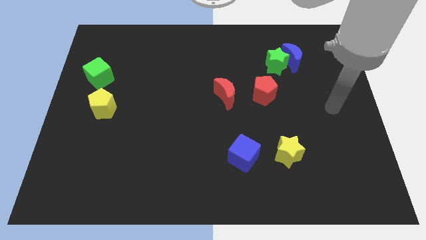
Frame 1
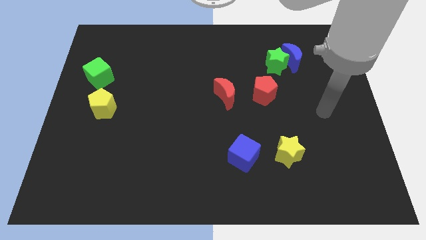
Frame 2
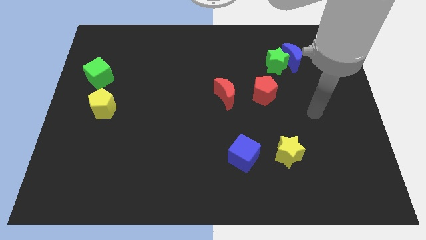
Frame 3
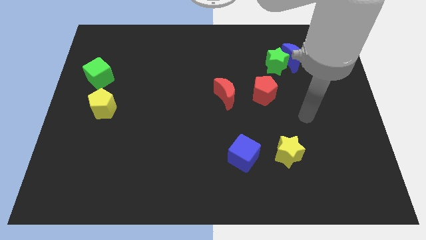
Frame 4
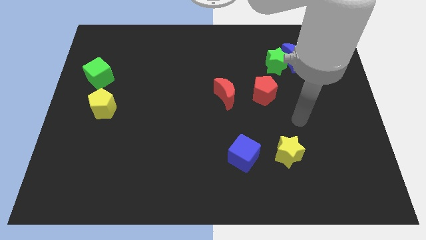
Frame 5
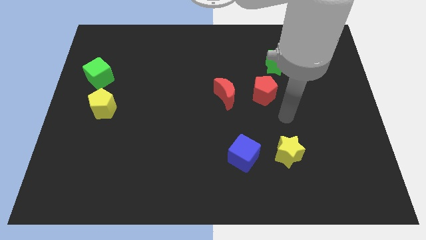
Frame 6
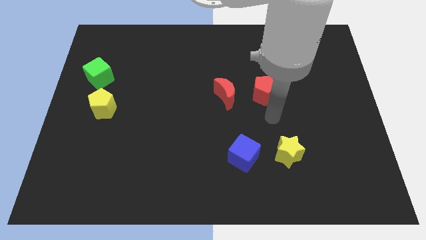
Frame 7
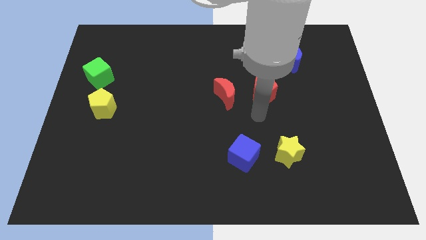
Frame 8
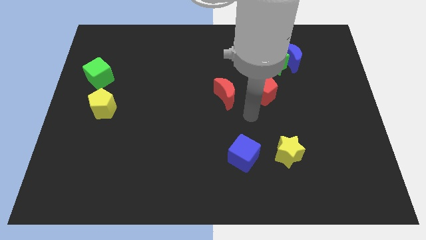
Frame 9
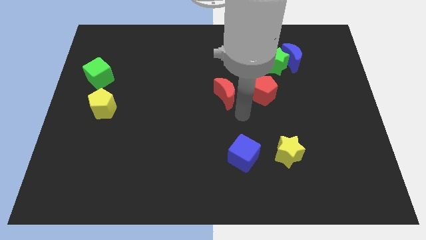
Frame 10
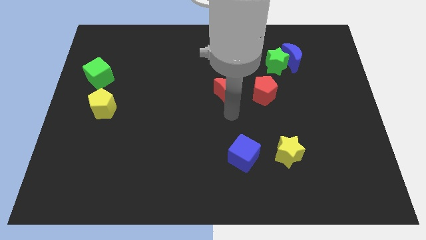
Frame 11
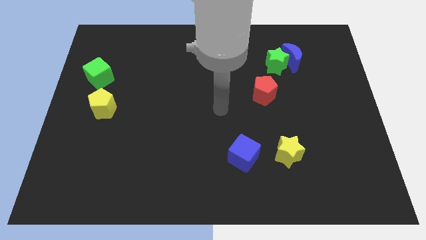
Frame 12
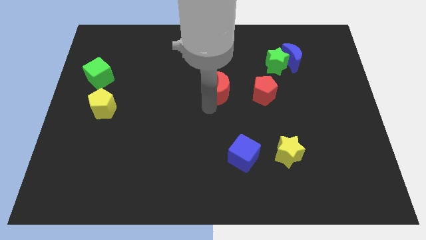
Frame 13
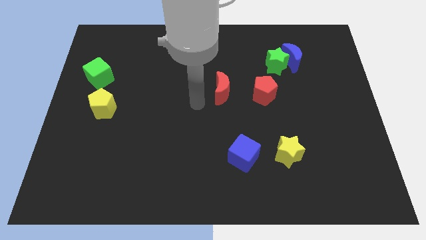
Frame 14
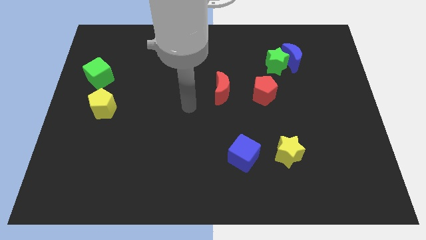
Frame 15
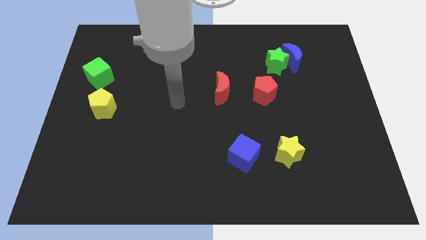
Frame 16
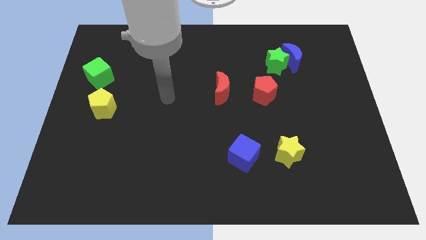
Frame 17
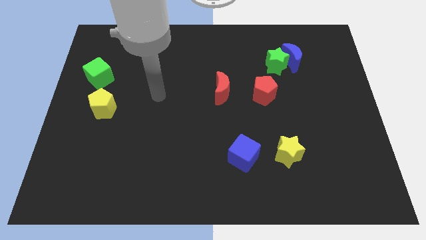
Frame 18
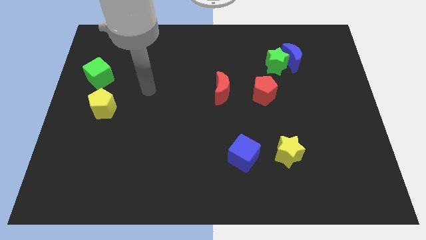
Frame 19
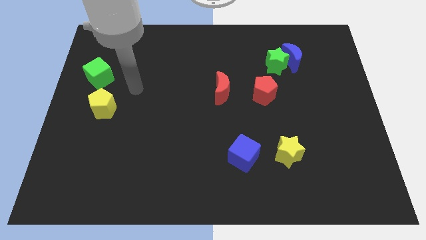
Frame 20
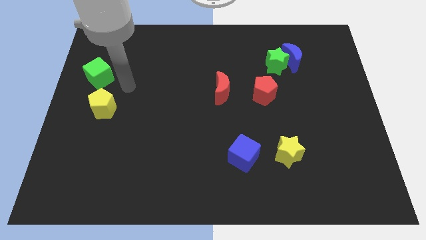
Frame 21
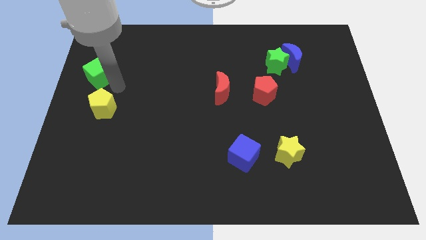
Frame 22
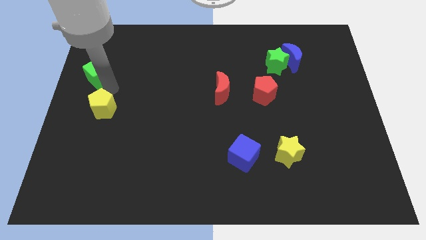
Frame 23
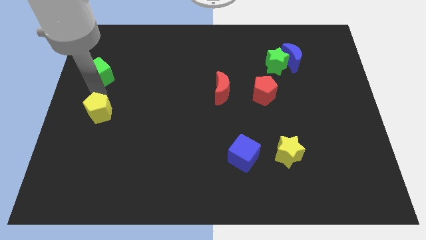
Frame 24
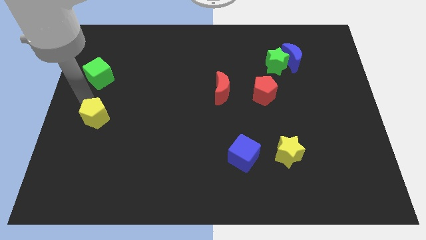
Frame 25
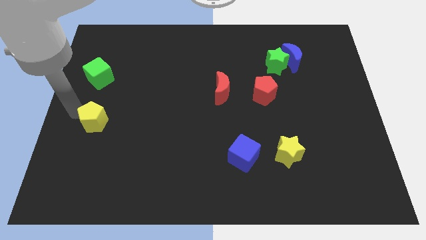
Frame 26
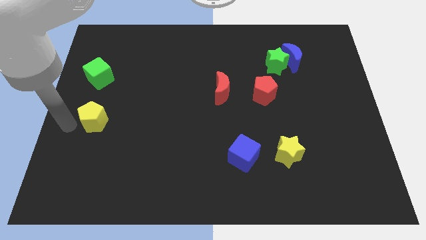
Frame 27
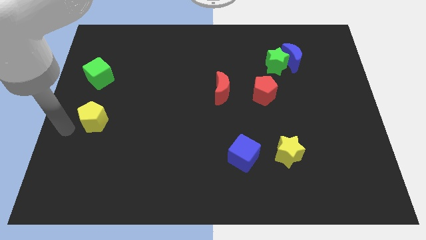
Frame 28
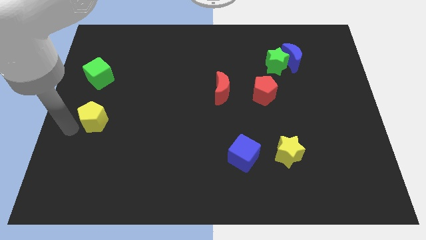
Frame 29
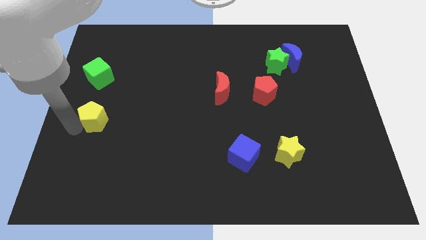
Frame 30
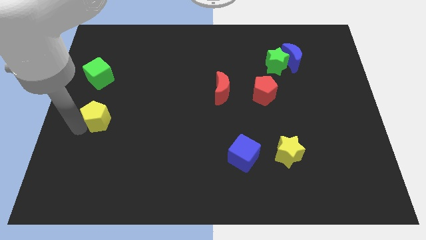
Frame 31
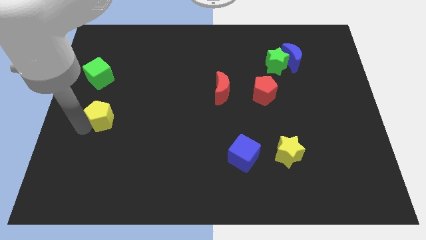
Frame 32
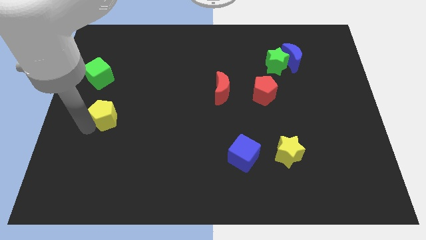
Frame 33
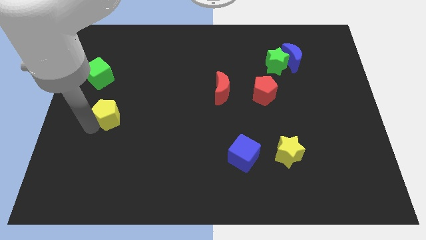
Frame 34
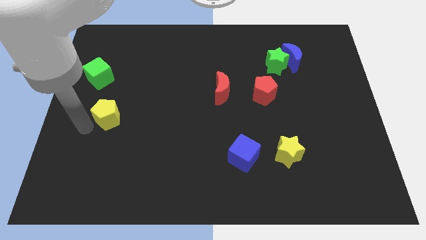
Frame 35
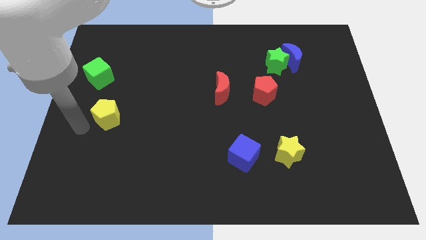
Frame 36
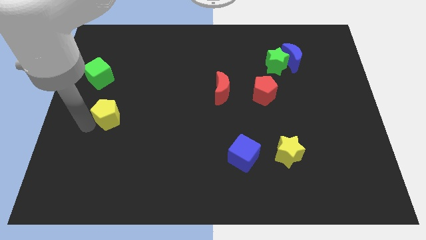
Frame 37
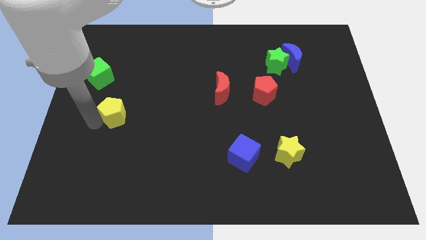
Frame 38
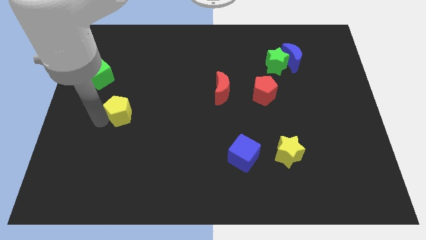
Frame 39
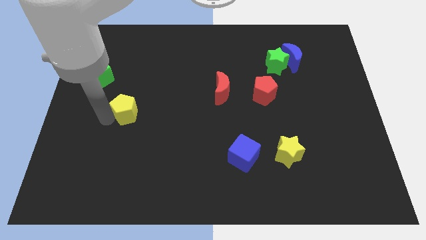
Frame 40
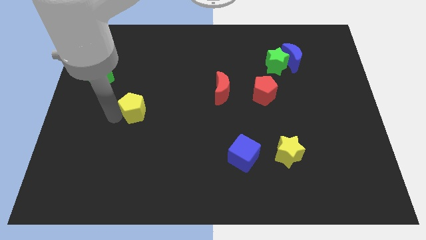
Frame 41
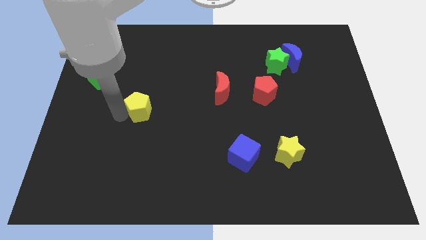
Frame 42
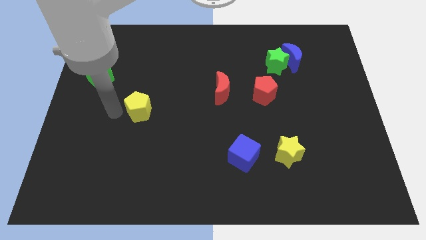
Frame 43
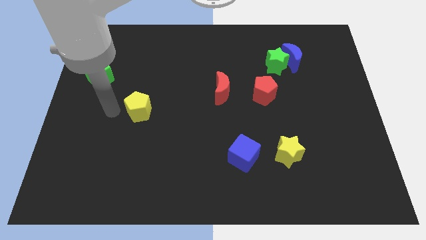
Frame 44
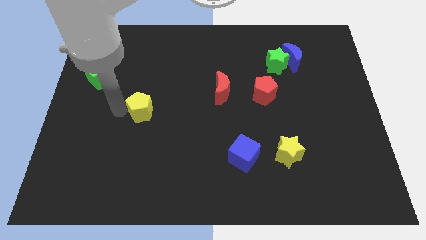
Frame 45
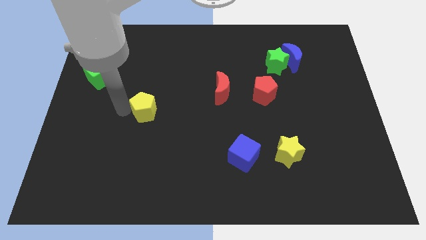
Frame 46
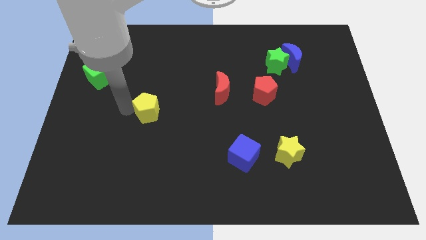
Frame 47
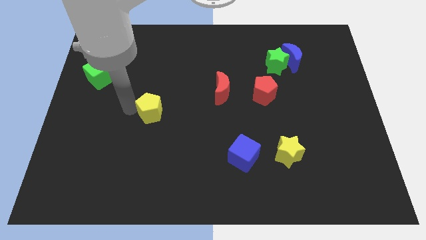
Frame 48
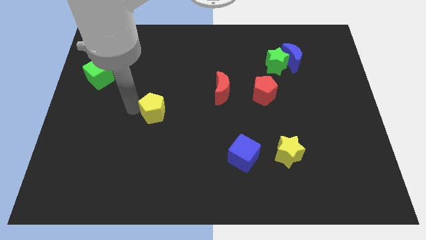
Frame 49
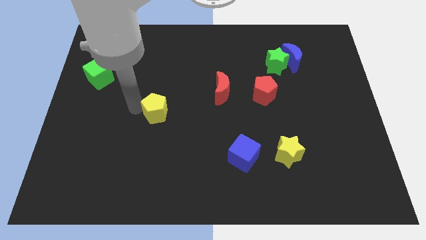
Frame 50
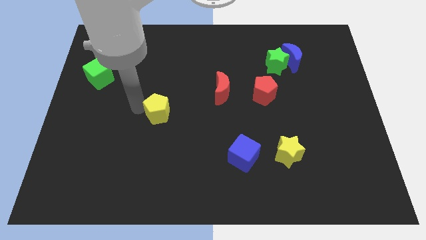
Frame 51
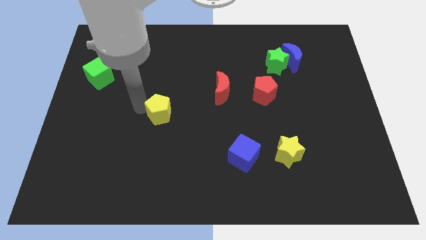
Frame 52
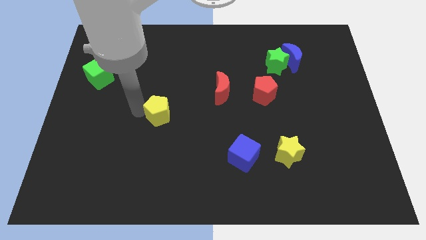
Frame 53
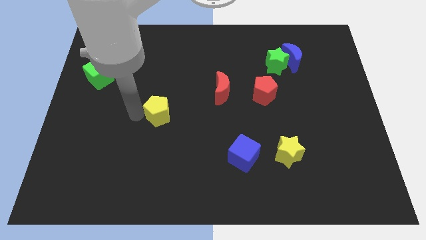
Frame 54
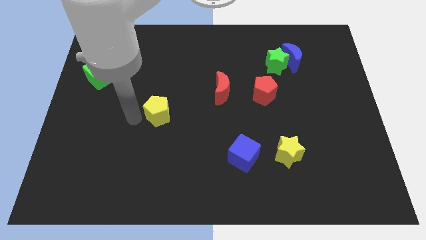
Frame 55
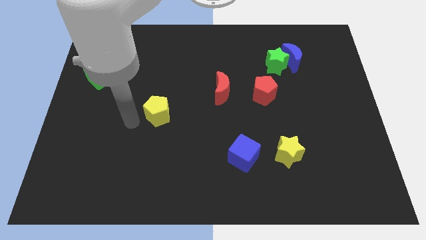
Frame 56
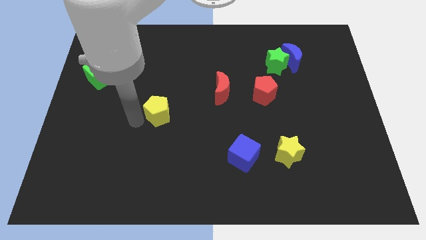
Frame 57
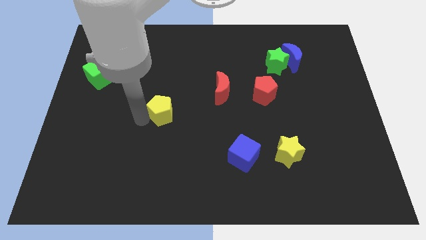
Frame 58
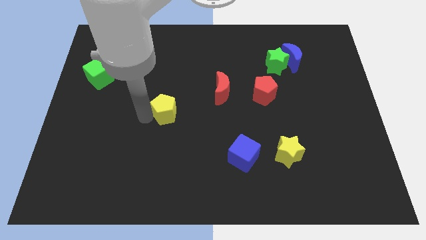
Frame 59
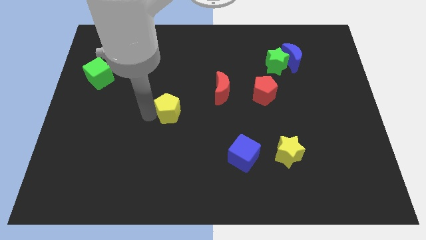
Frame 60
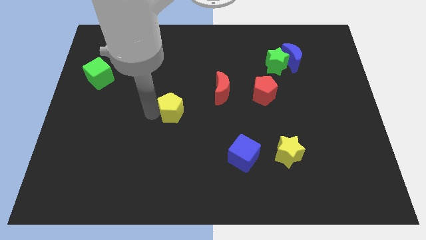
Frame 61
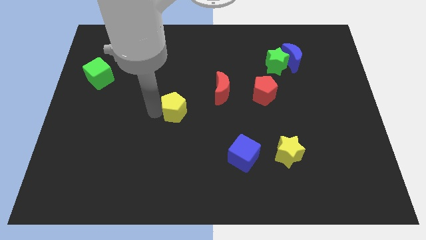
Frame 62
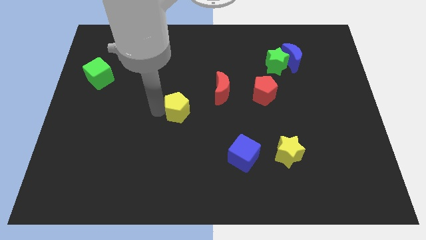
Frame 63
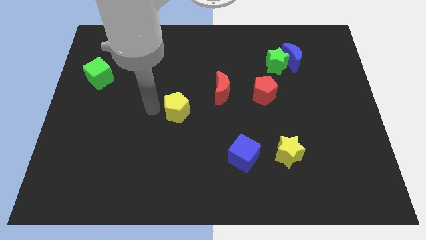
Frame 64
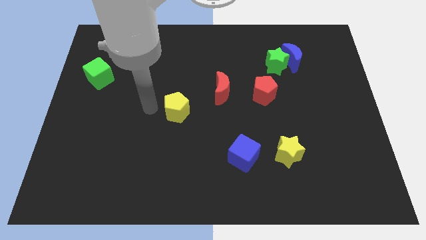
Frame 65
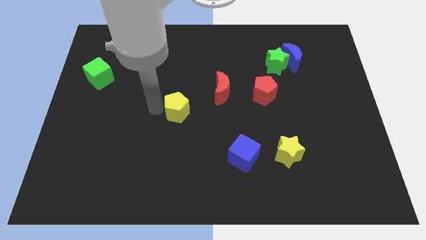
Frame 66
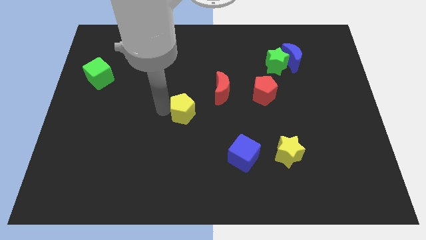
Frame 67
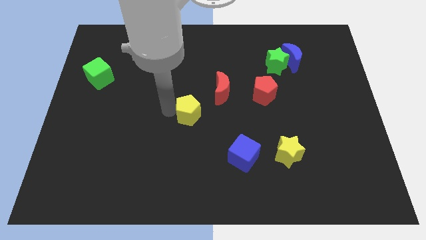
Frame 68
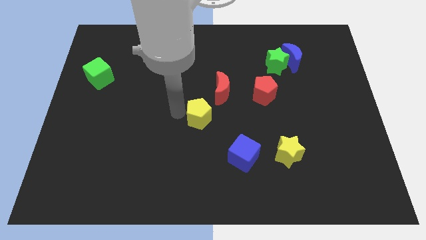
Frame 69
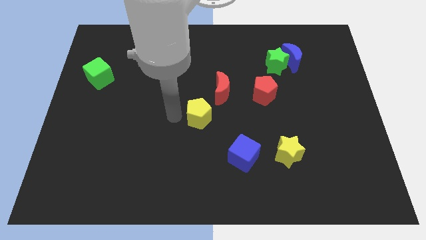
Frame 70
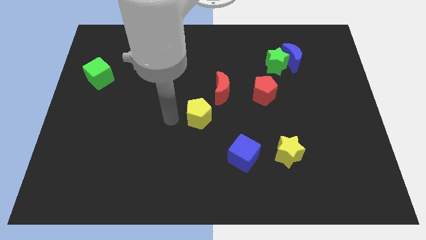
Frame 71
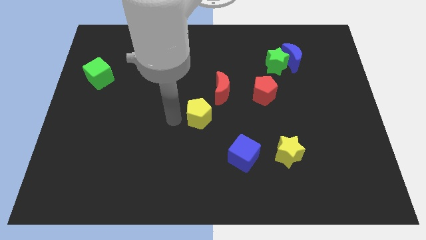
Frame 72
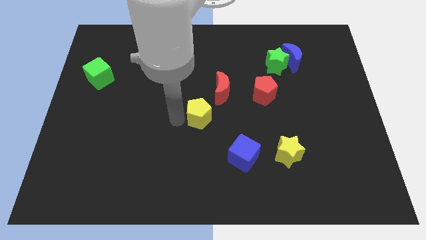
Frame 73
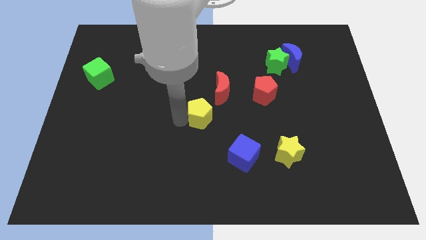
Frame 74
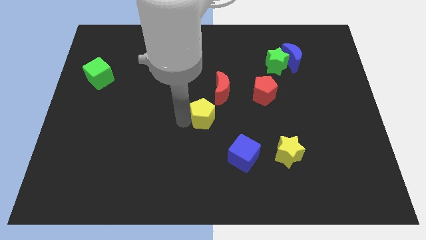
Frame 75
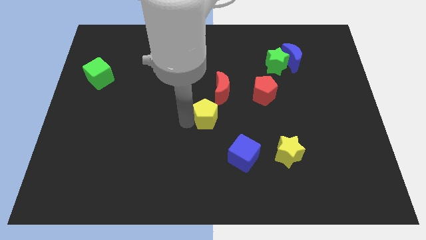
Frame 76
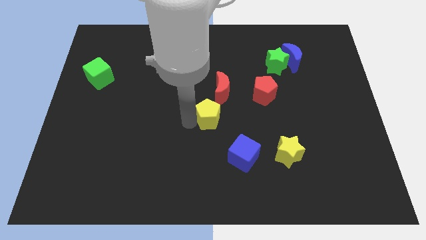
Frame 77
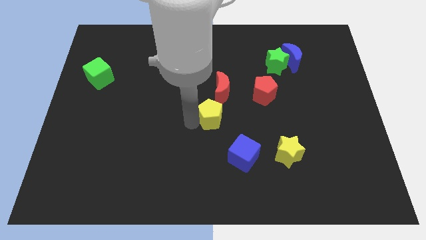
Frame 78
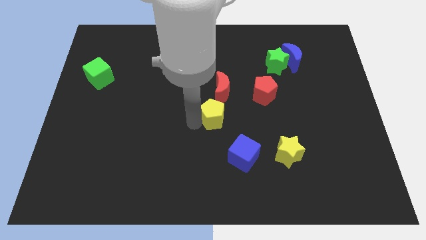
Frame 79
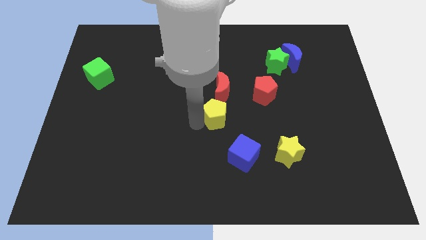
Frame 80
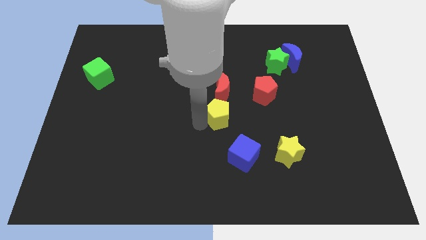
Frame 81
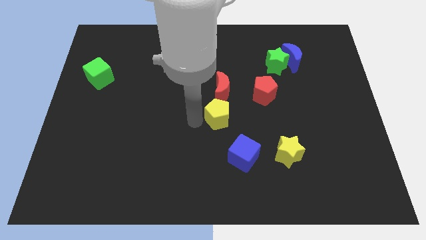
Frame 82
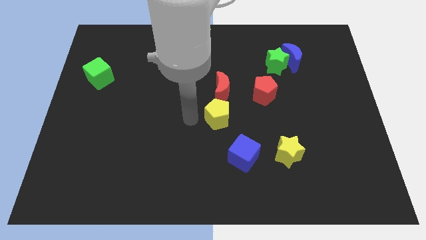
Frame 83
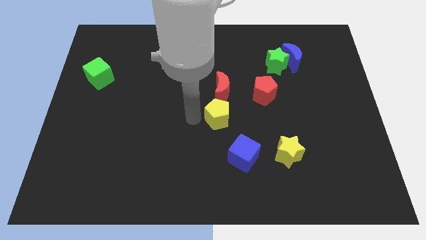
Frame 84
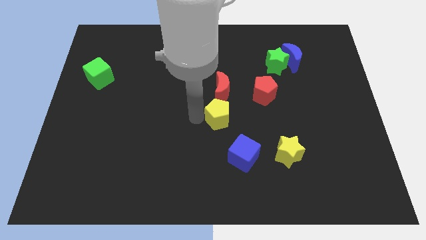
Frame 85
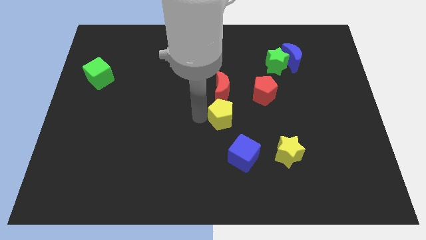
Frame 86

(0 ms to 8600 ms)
put the yellow pentagon to the top side of the blue cube
